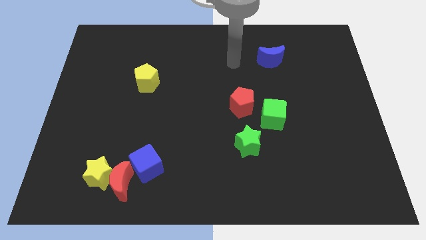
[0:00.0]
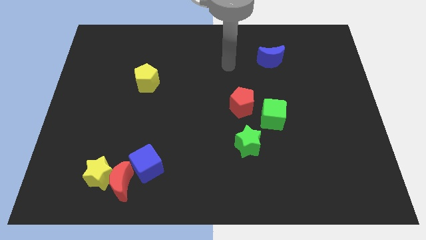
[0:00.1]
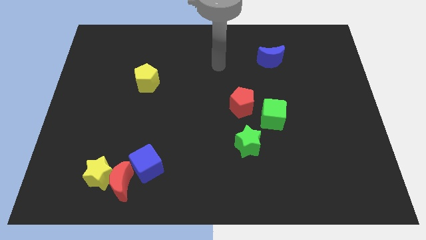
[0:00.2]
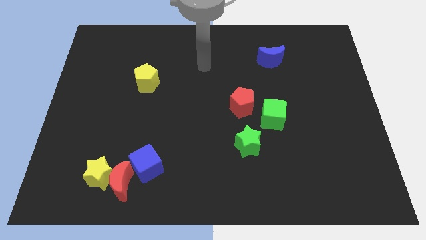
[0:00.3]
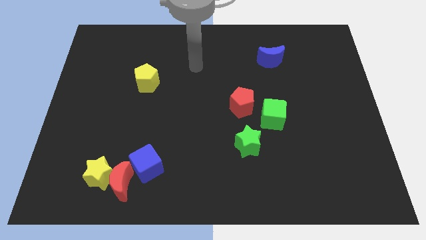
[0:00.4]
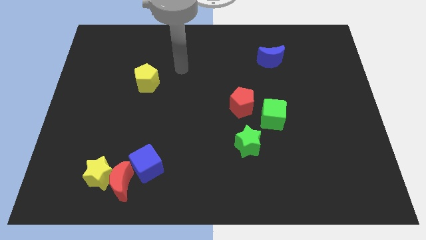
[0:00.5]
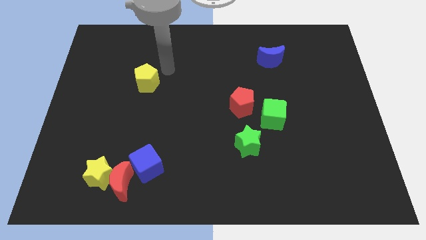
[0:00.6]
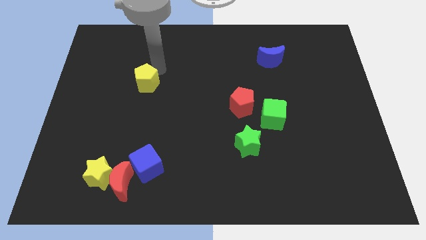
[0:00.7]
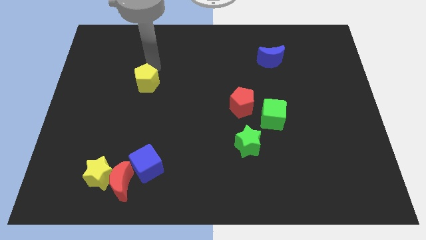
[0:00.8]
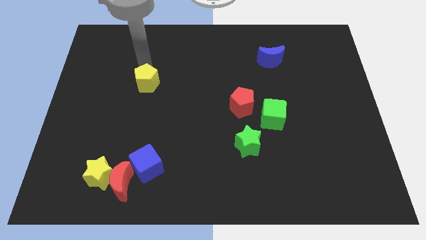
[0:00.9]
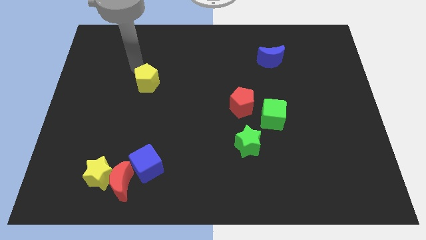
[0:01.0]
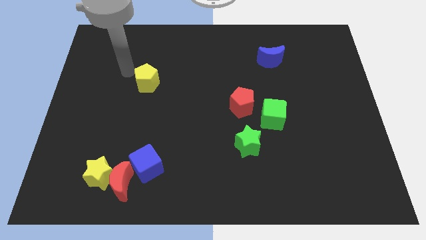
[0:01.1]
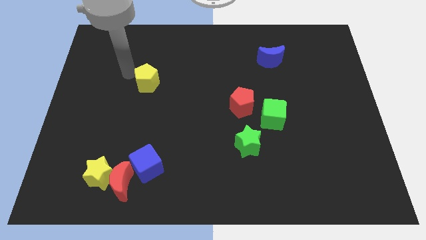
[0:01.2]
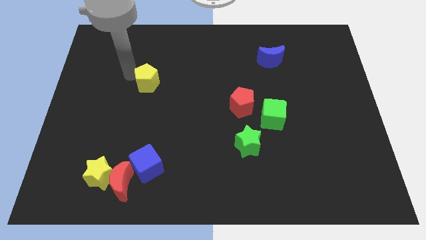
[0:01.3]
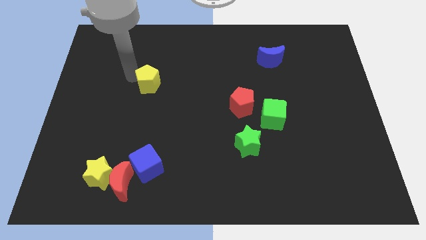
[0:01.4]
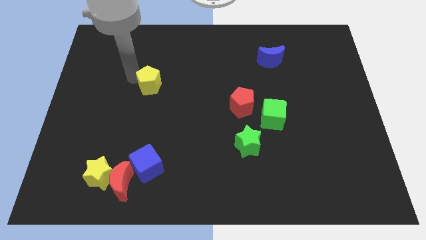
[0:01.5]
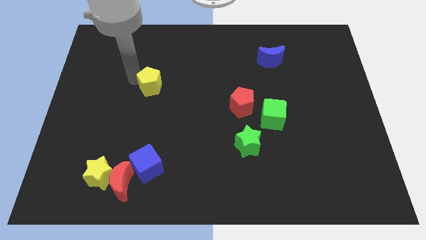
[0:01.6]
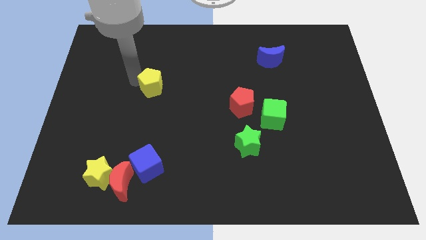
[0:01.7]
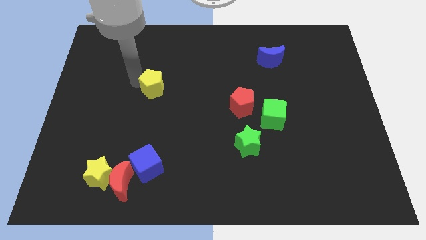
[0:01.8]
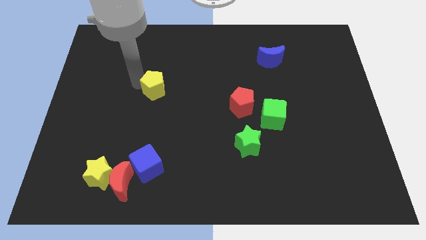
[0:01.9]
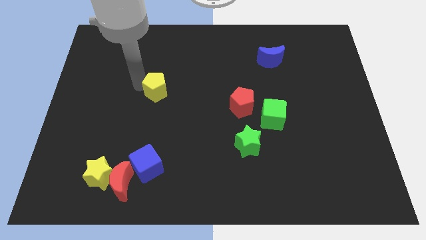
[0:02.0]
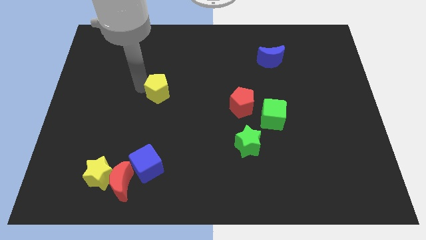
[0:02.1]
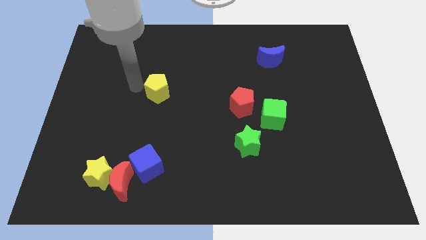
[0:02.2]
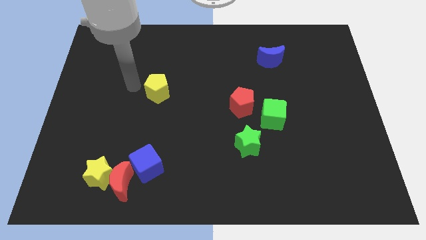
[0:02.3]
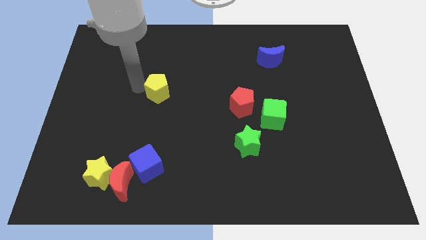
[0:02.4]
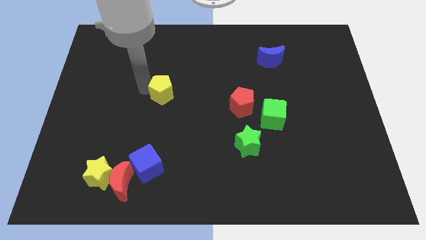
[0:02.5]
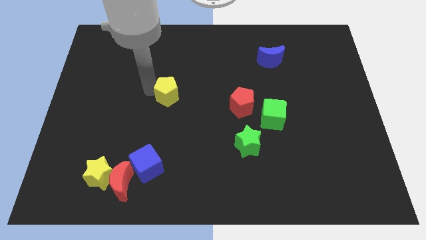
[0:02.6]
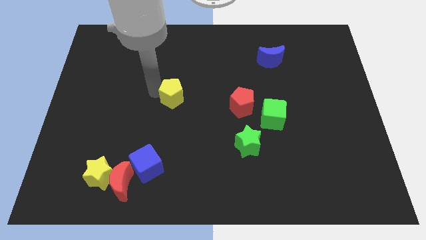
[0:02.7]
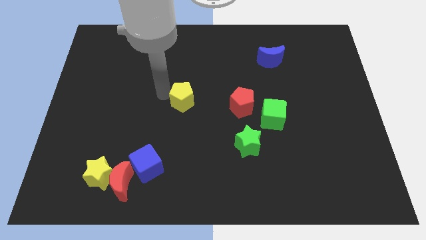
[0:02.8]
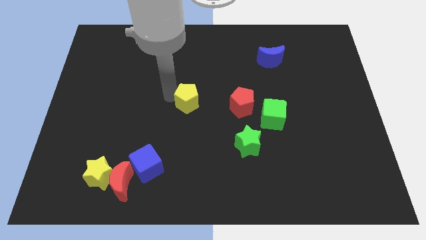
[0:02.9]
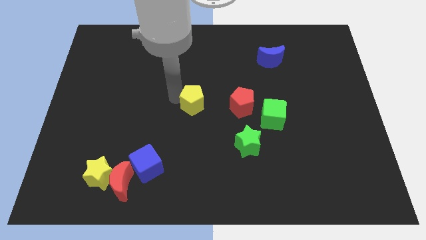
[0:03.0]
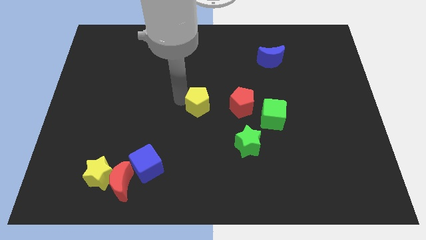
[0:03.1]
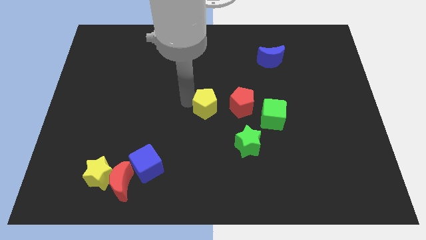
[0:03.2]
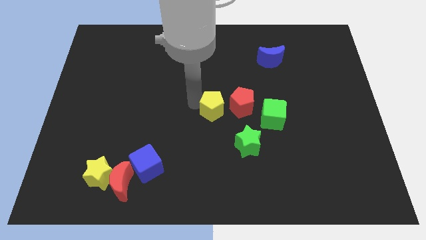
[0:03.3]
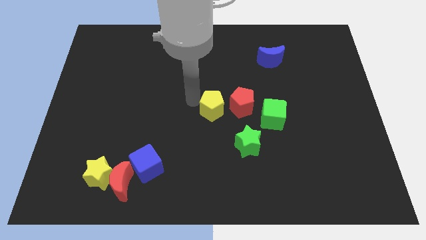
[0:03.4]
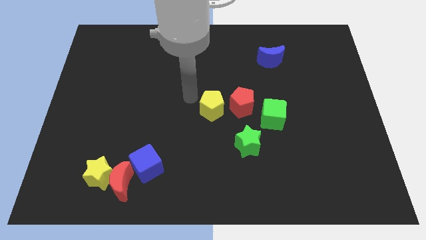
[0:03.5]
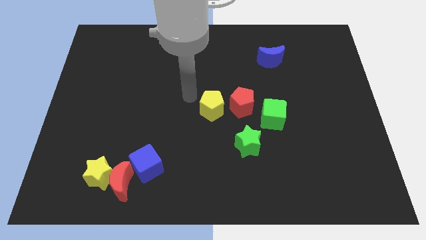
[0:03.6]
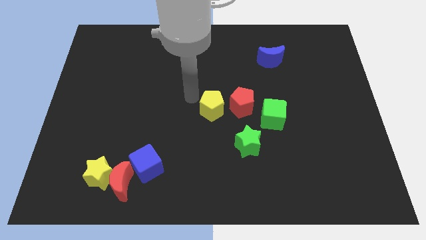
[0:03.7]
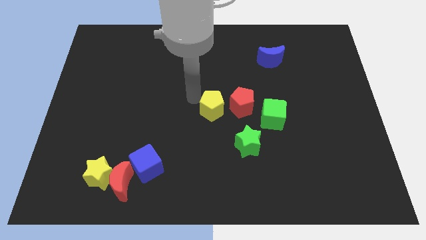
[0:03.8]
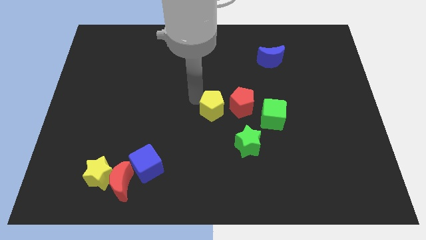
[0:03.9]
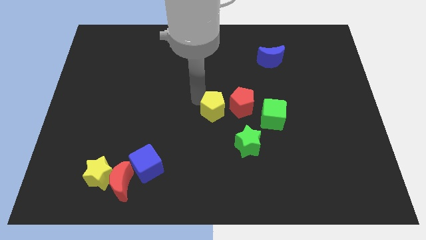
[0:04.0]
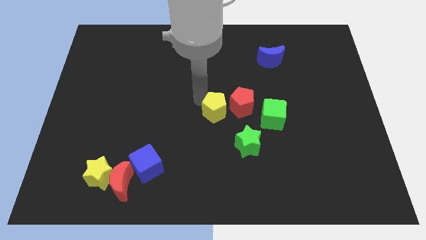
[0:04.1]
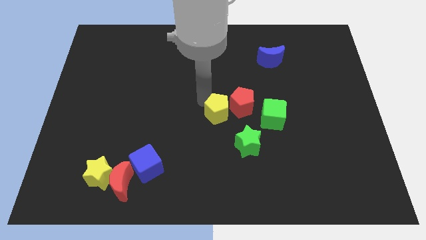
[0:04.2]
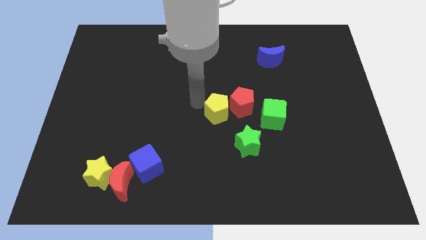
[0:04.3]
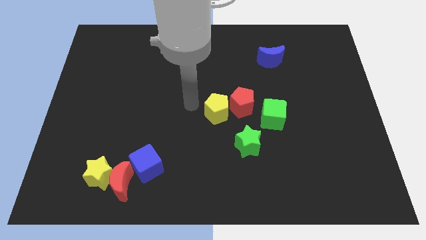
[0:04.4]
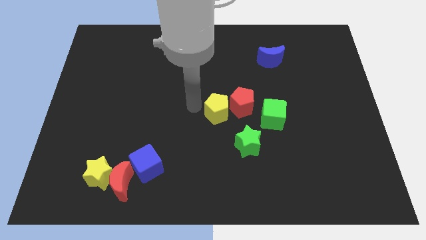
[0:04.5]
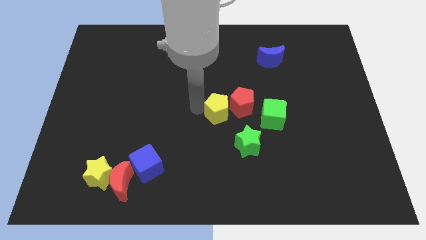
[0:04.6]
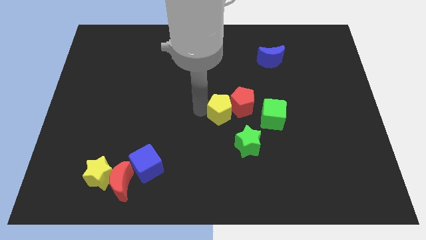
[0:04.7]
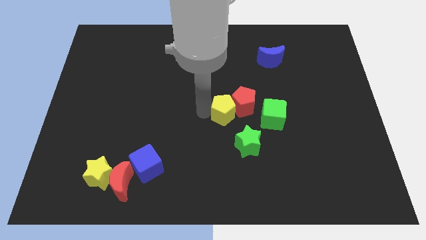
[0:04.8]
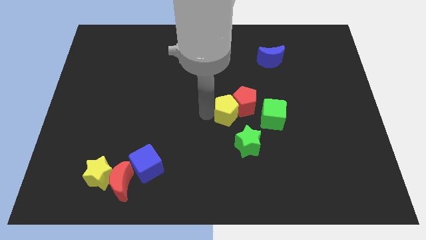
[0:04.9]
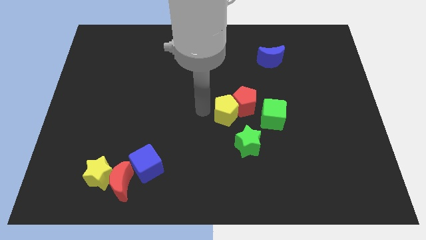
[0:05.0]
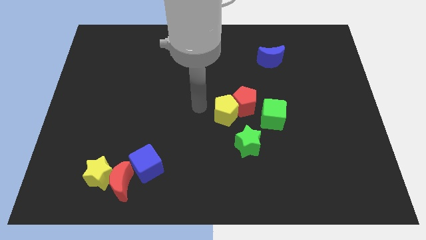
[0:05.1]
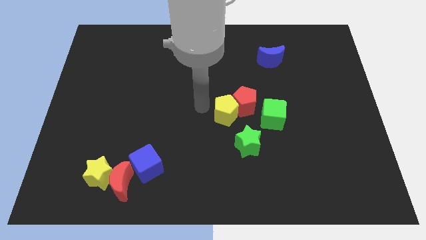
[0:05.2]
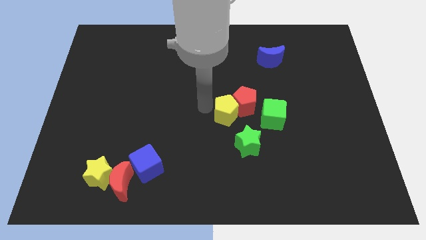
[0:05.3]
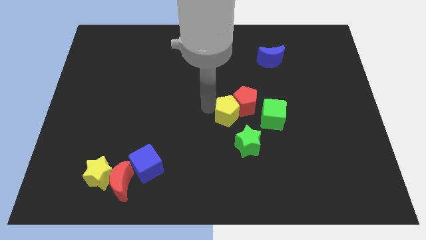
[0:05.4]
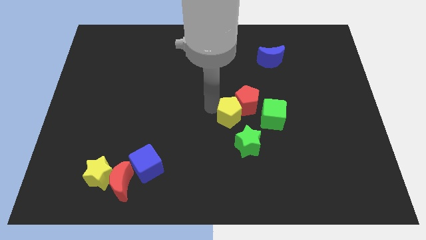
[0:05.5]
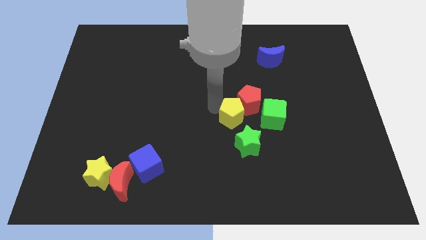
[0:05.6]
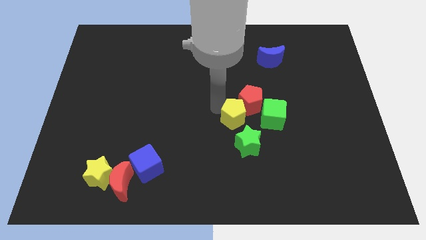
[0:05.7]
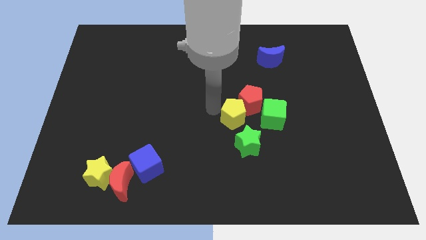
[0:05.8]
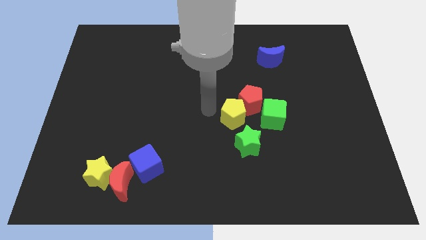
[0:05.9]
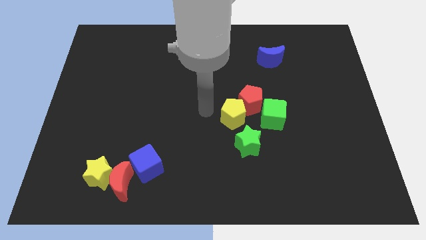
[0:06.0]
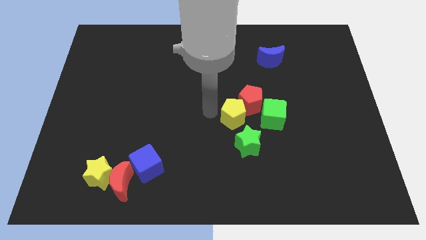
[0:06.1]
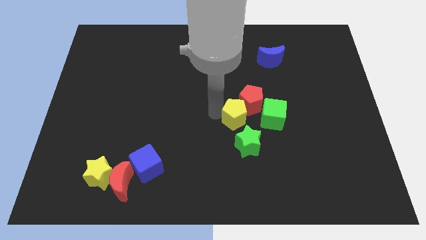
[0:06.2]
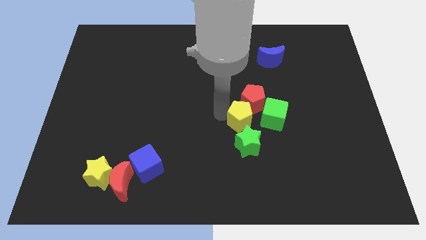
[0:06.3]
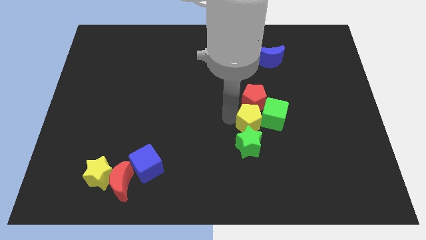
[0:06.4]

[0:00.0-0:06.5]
push the yellow pentagon next to the green cube

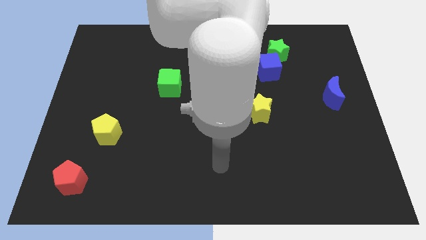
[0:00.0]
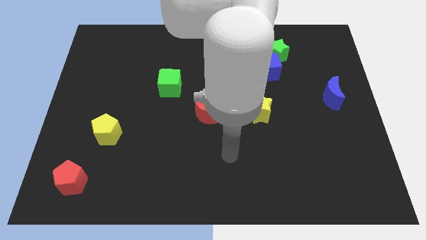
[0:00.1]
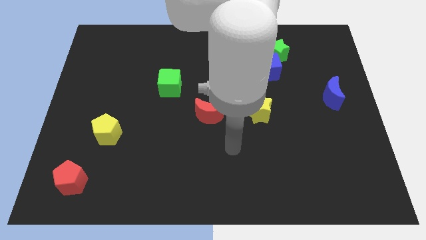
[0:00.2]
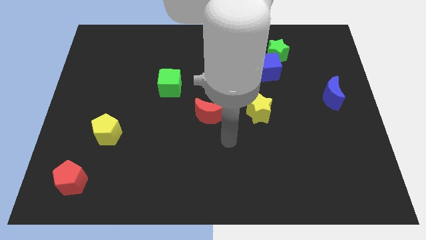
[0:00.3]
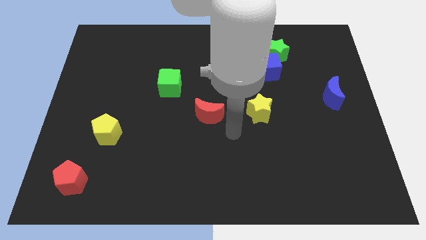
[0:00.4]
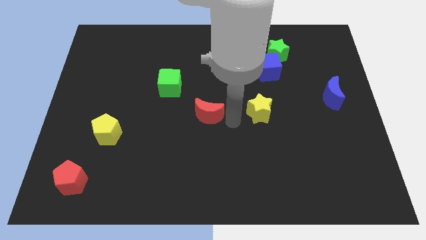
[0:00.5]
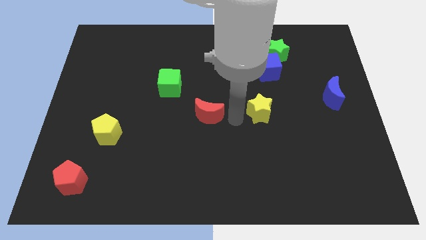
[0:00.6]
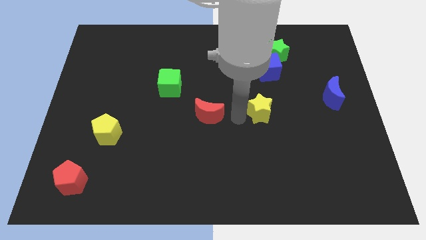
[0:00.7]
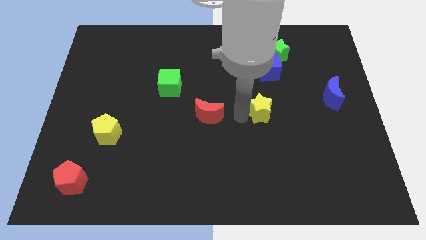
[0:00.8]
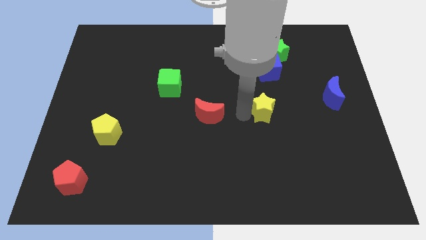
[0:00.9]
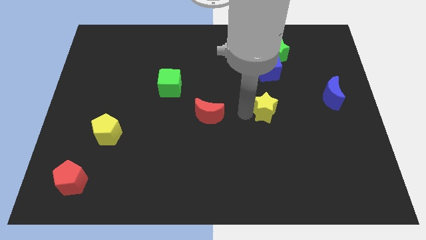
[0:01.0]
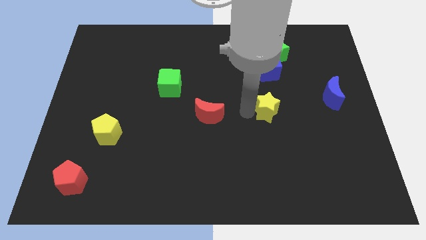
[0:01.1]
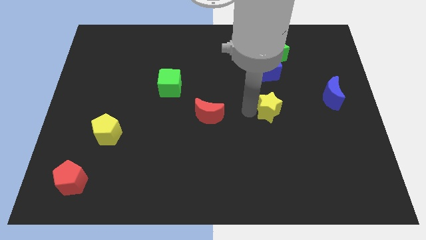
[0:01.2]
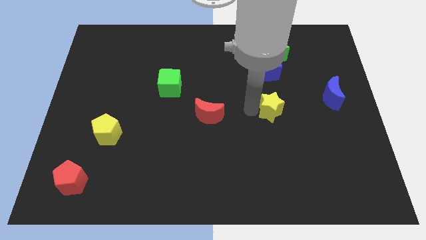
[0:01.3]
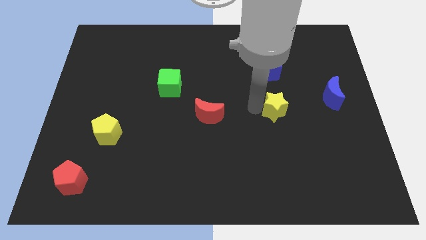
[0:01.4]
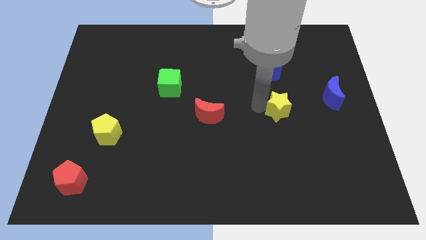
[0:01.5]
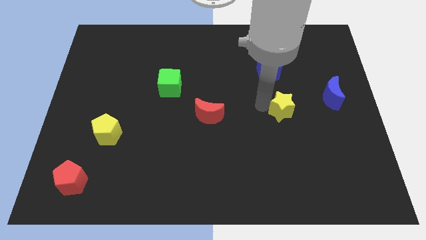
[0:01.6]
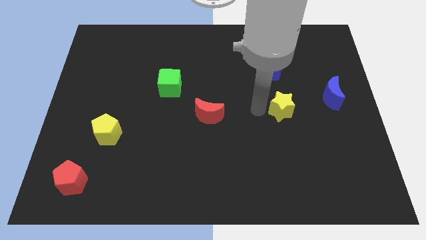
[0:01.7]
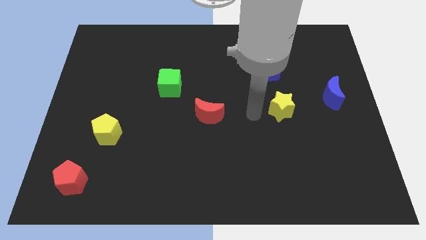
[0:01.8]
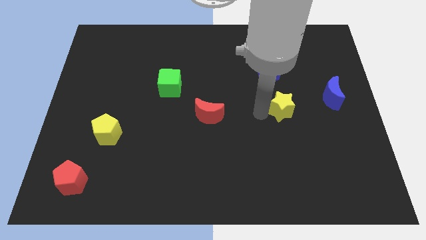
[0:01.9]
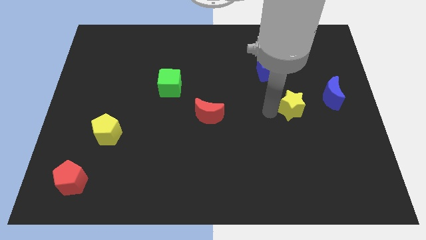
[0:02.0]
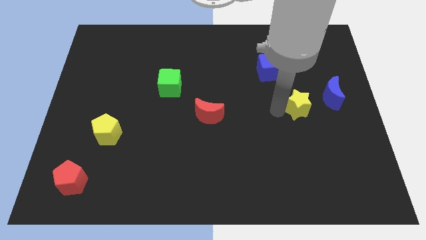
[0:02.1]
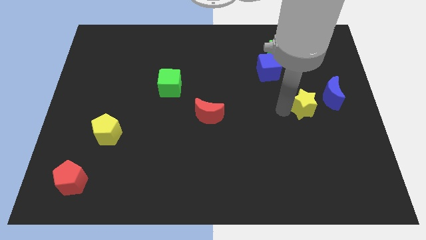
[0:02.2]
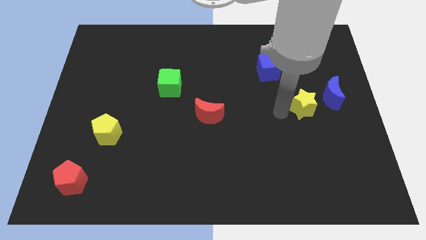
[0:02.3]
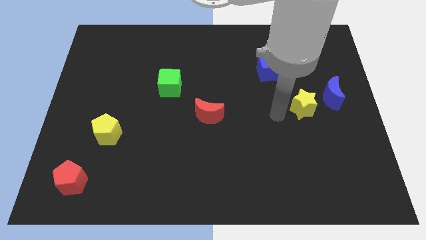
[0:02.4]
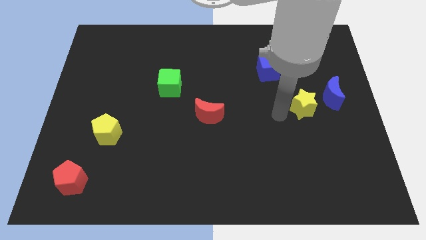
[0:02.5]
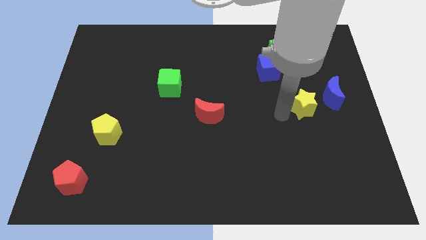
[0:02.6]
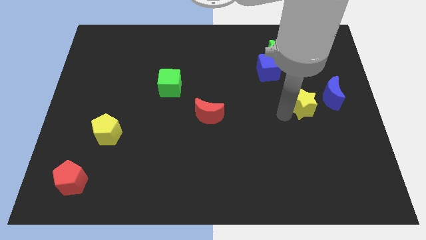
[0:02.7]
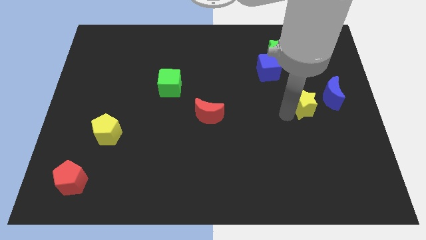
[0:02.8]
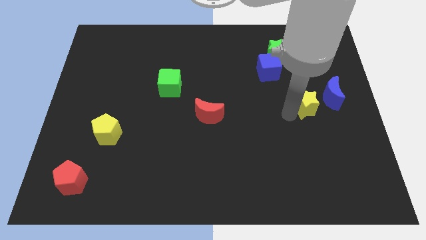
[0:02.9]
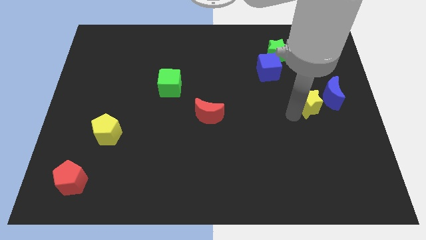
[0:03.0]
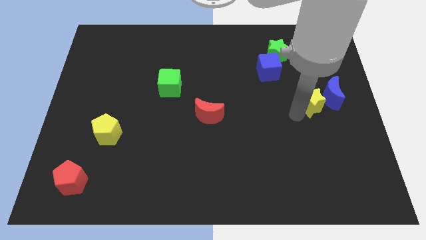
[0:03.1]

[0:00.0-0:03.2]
slide the yellow star next to the blue moon
